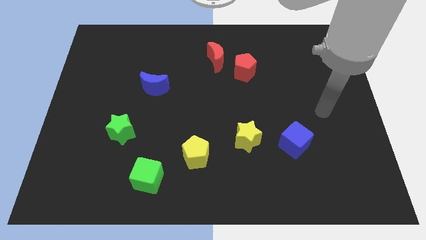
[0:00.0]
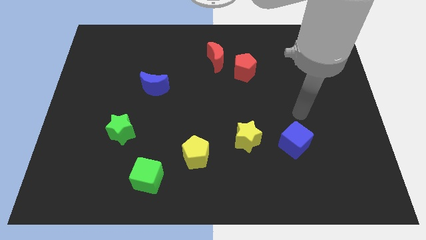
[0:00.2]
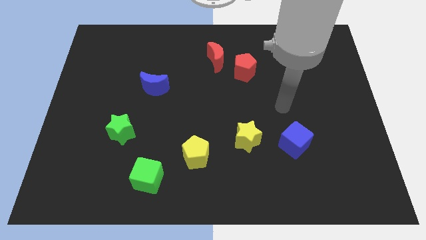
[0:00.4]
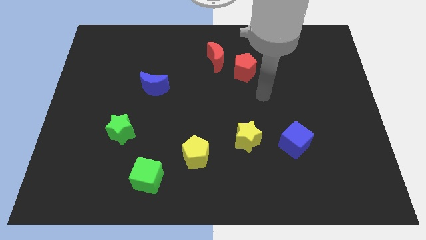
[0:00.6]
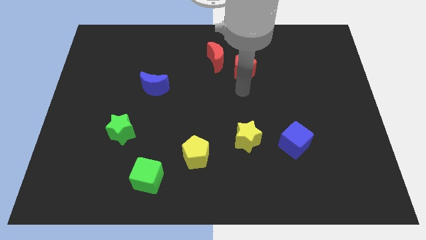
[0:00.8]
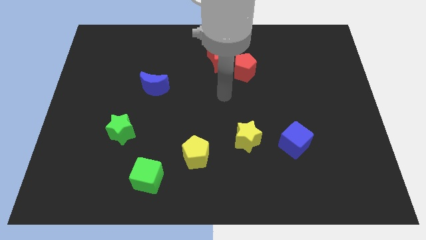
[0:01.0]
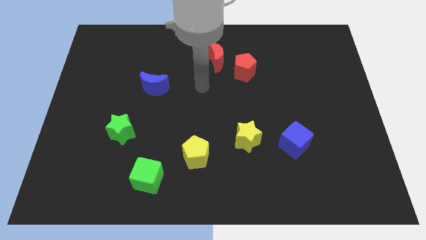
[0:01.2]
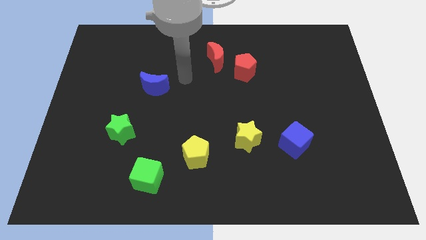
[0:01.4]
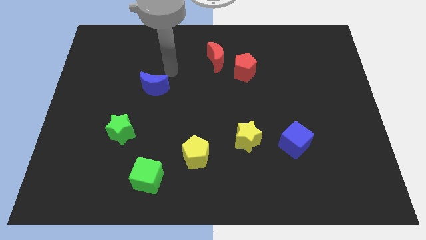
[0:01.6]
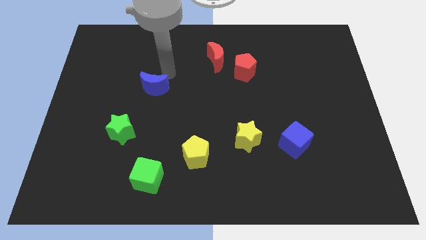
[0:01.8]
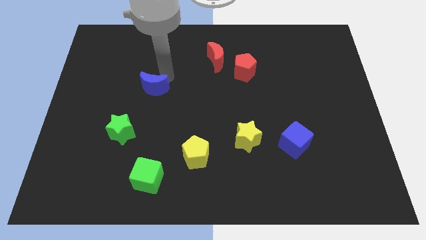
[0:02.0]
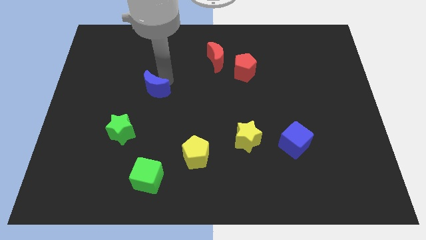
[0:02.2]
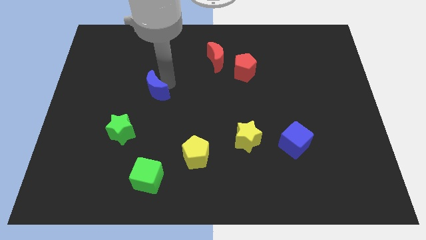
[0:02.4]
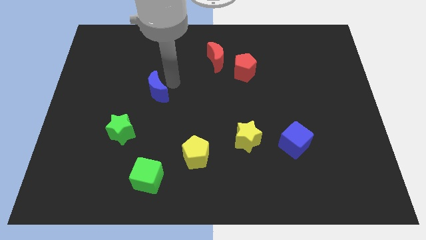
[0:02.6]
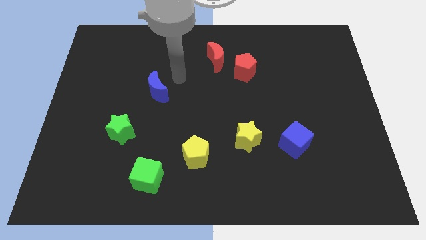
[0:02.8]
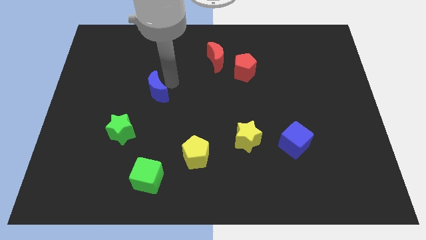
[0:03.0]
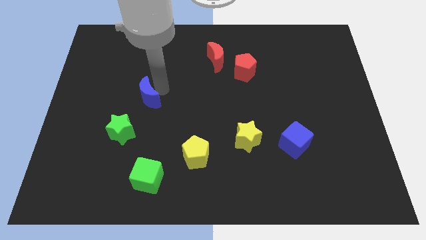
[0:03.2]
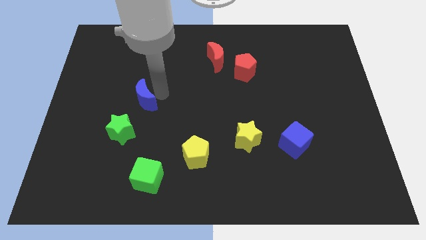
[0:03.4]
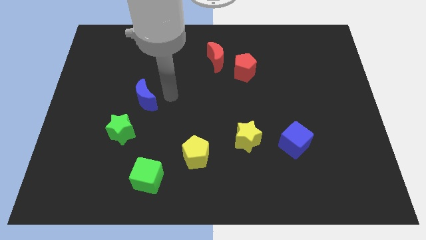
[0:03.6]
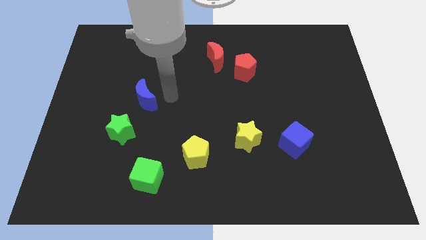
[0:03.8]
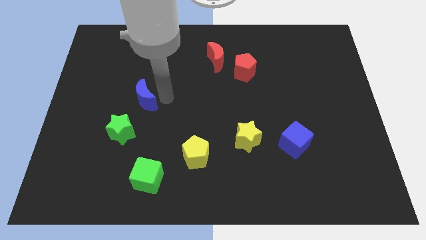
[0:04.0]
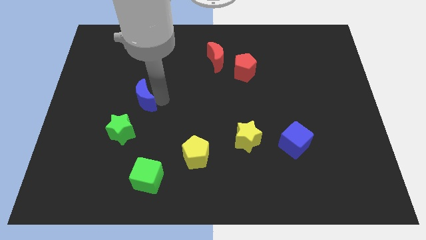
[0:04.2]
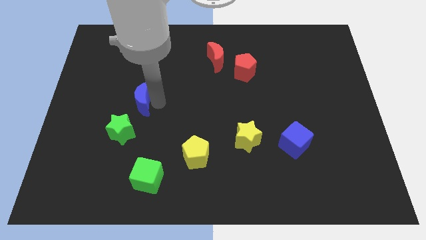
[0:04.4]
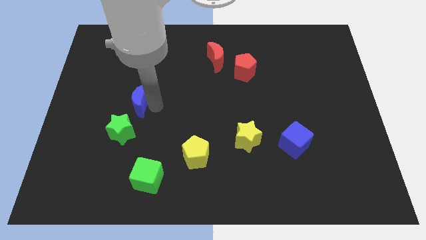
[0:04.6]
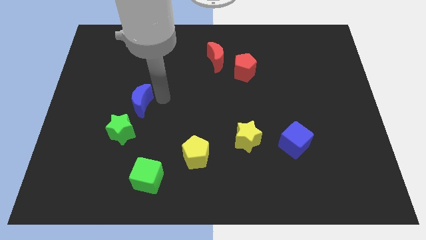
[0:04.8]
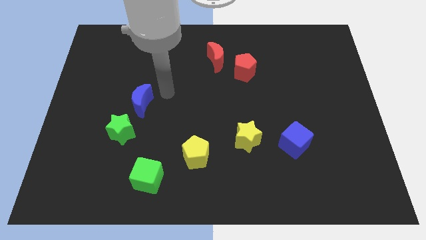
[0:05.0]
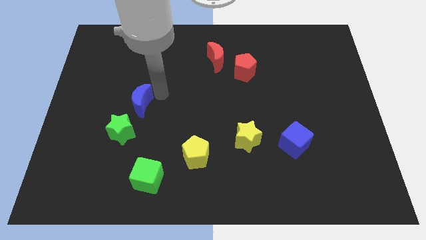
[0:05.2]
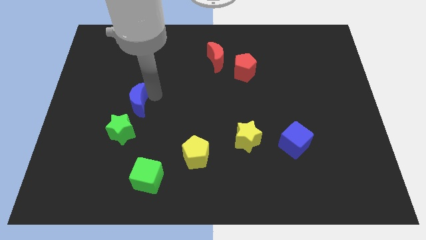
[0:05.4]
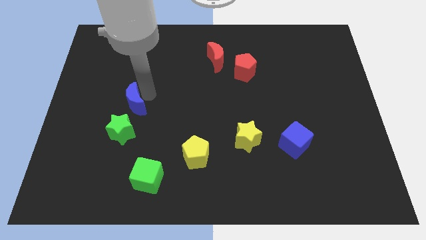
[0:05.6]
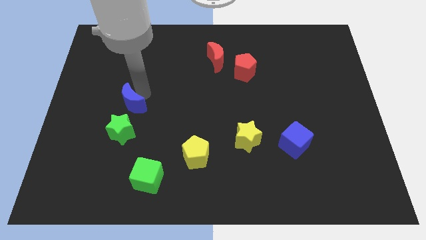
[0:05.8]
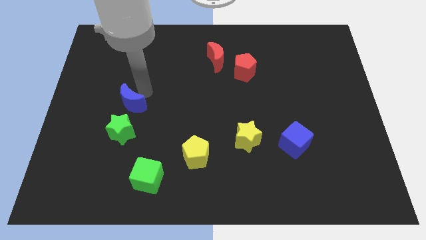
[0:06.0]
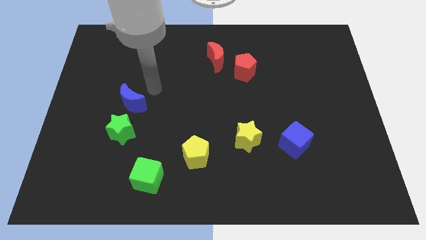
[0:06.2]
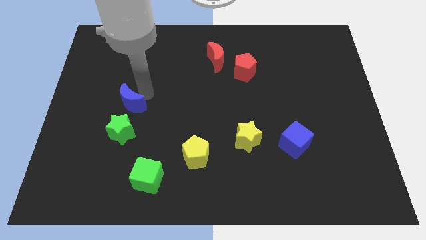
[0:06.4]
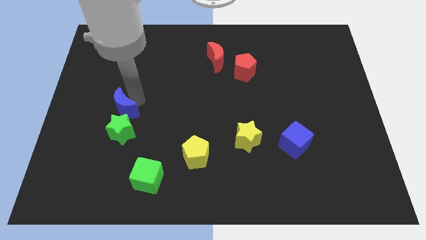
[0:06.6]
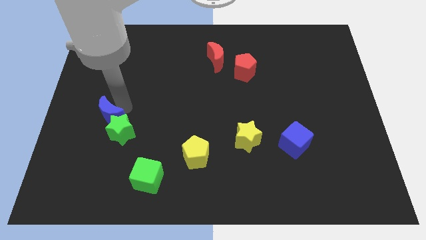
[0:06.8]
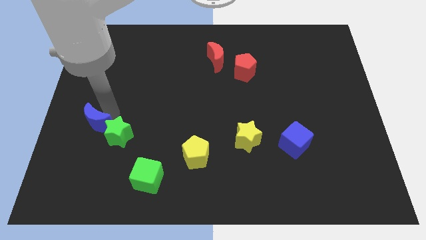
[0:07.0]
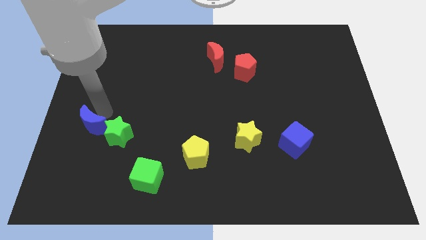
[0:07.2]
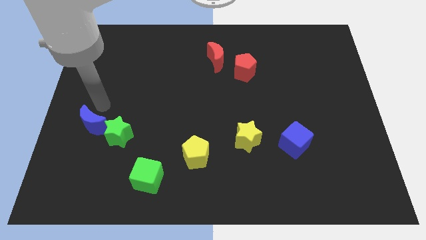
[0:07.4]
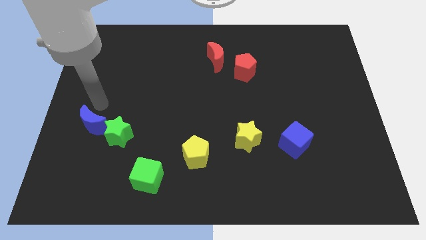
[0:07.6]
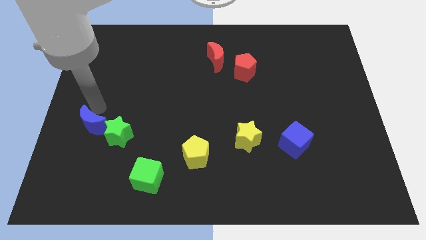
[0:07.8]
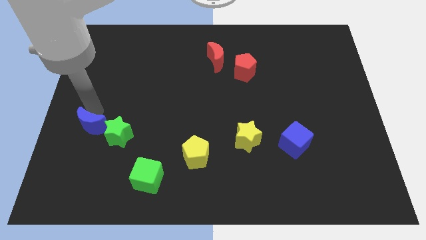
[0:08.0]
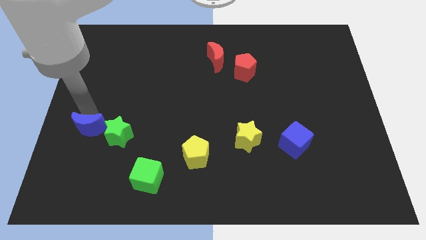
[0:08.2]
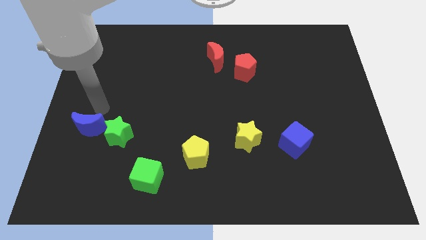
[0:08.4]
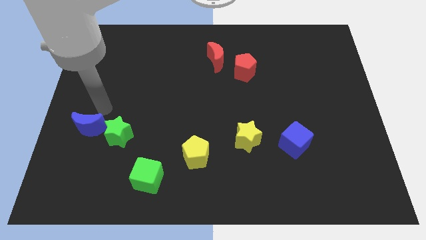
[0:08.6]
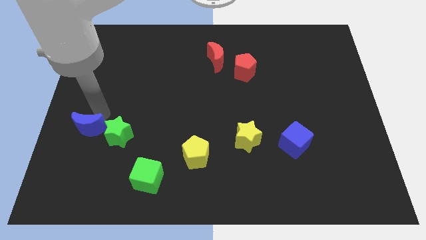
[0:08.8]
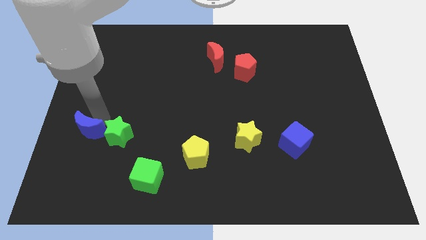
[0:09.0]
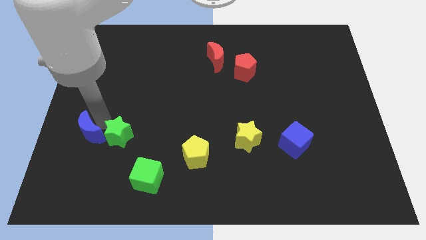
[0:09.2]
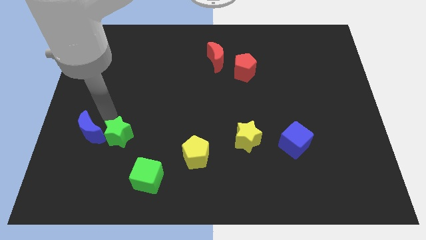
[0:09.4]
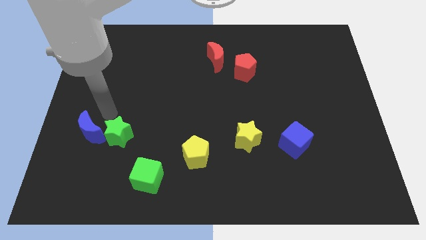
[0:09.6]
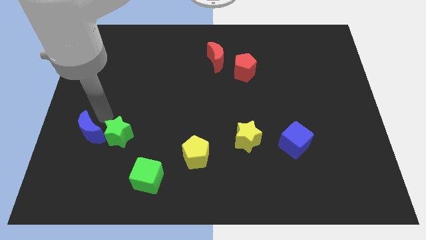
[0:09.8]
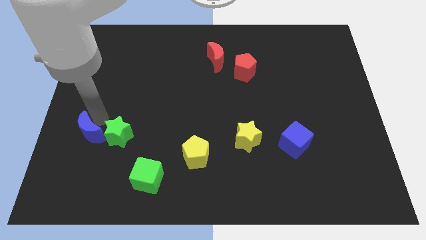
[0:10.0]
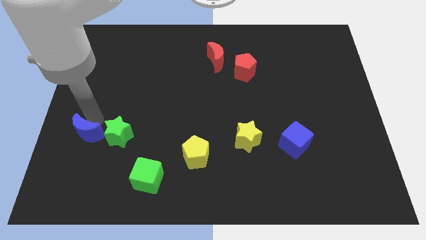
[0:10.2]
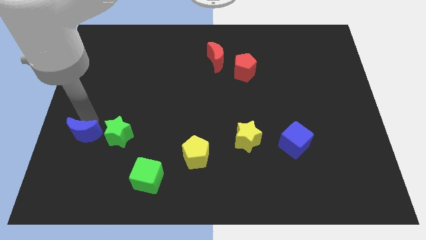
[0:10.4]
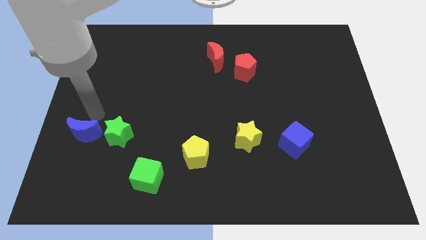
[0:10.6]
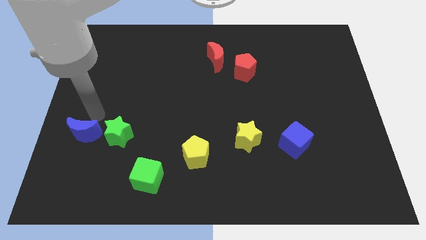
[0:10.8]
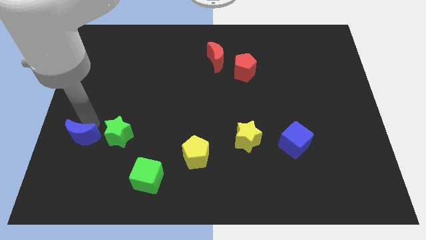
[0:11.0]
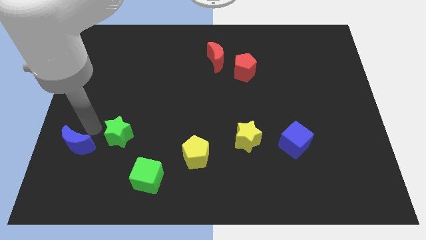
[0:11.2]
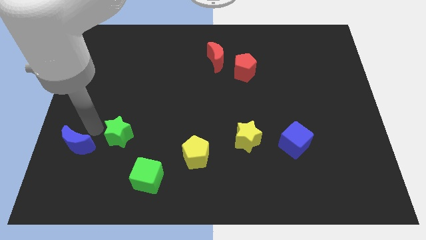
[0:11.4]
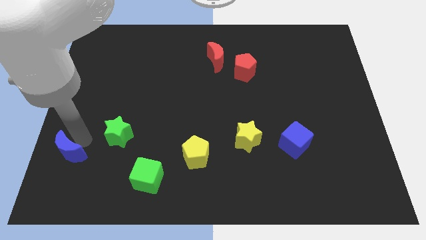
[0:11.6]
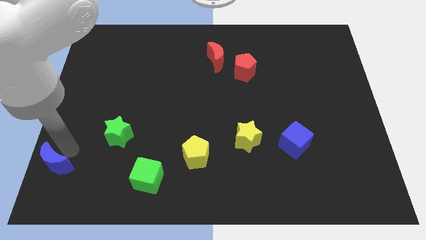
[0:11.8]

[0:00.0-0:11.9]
slide the blue moon to the bottom left of the board

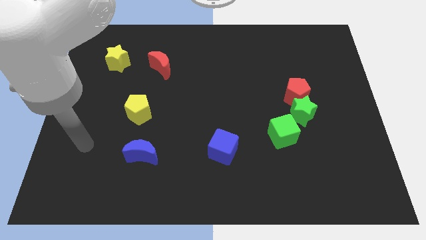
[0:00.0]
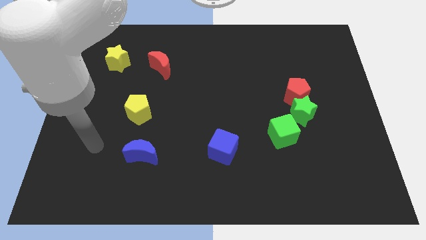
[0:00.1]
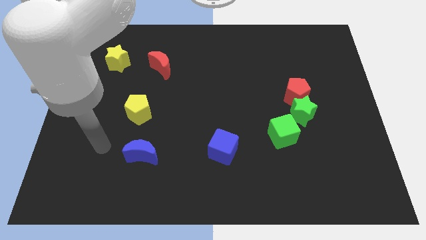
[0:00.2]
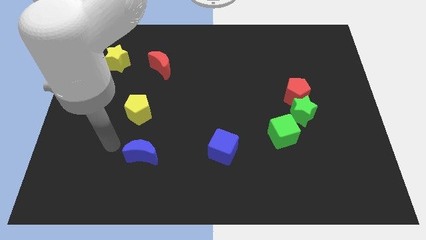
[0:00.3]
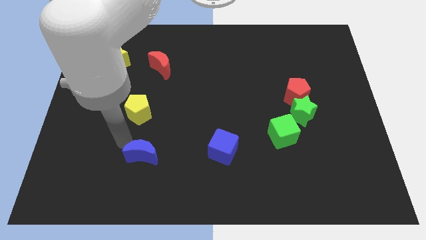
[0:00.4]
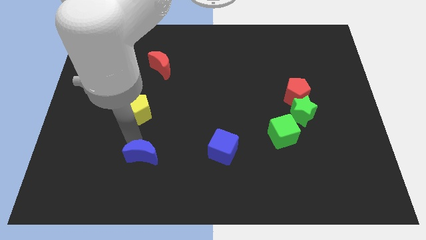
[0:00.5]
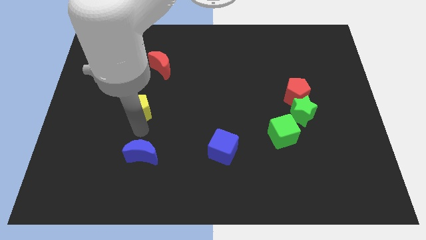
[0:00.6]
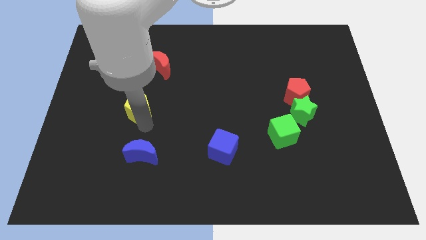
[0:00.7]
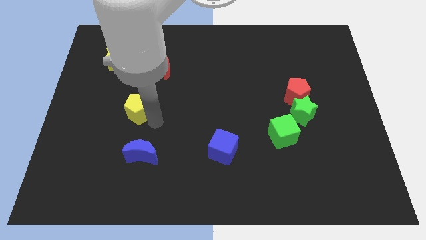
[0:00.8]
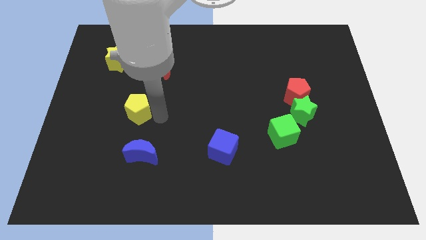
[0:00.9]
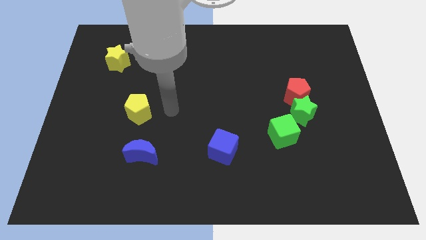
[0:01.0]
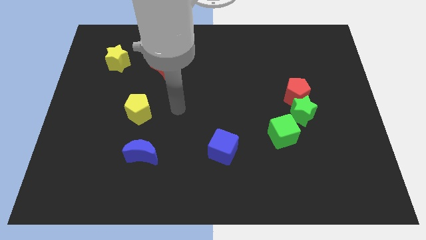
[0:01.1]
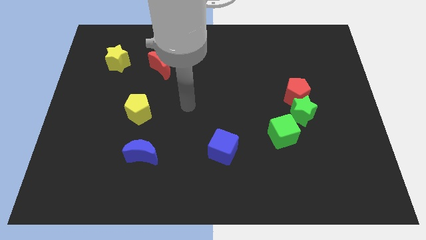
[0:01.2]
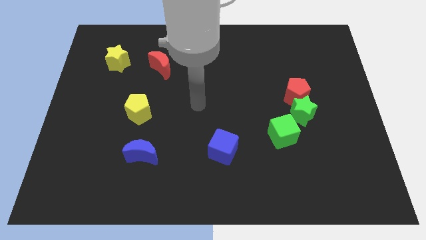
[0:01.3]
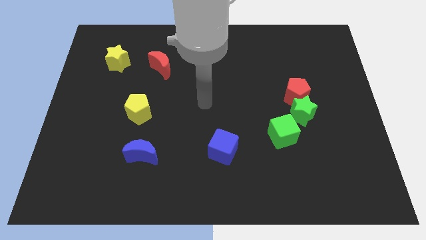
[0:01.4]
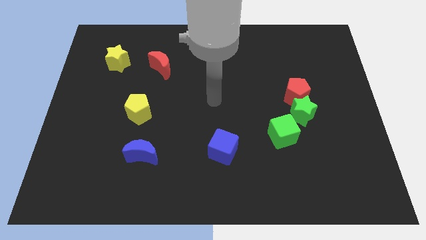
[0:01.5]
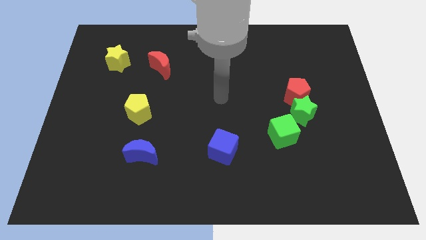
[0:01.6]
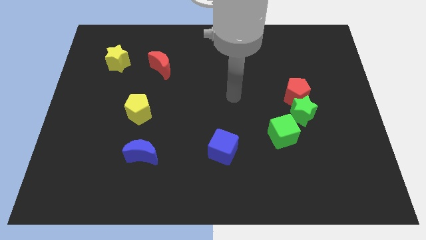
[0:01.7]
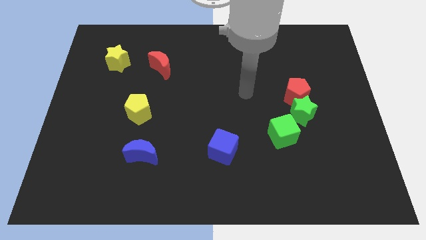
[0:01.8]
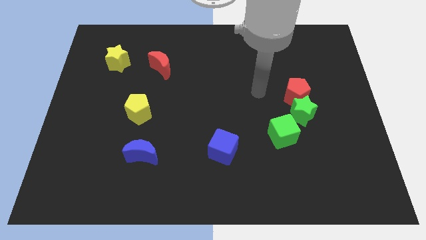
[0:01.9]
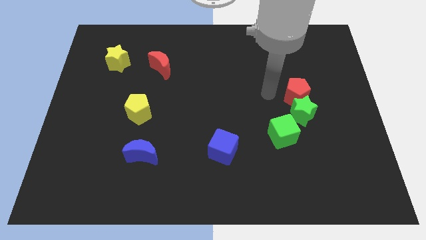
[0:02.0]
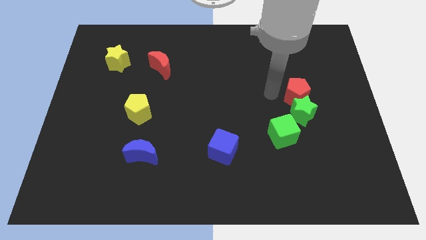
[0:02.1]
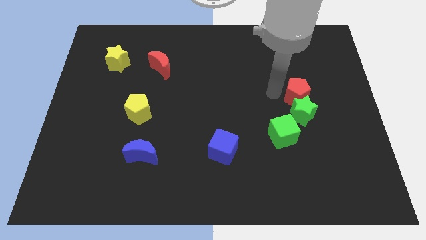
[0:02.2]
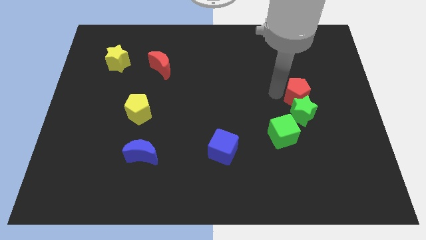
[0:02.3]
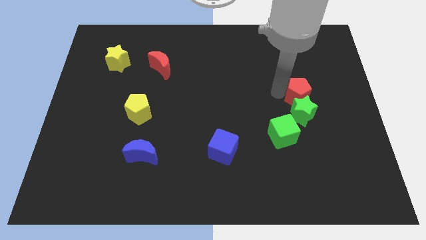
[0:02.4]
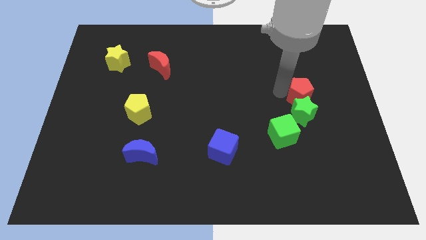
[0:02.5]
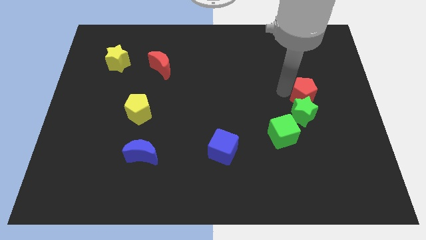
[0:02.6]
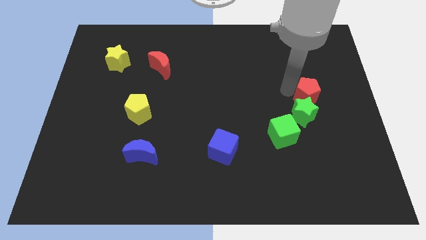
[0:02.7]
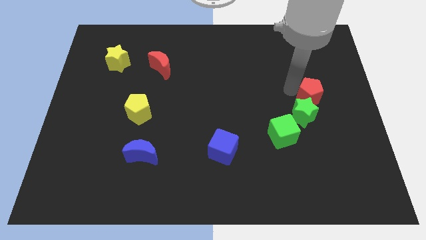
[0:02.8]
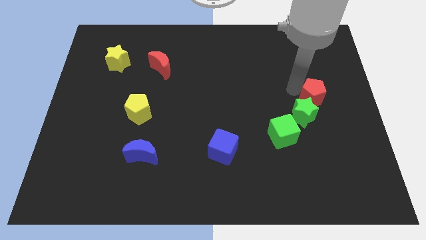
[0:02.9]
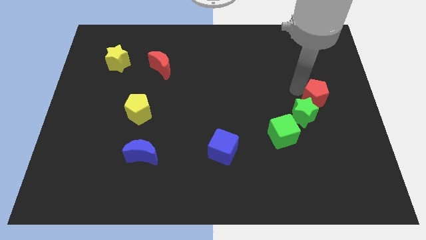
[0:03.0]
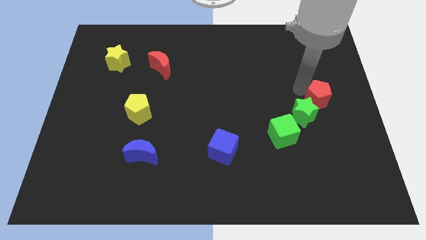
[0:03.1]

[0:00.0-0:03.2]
move the red pentagon to the right side of the board
